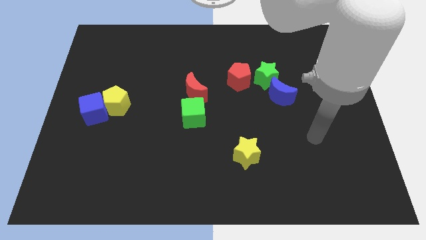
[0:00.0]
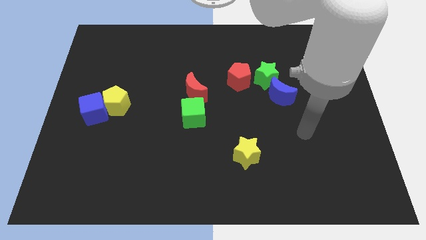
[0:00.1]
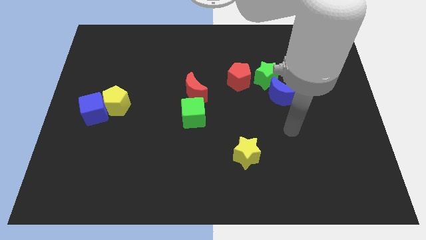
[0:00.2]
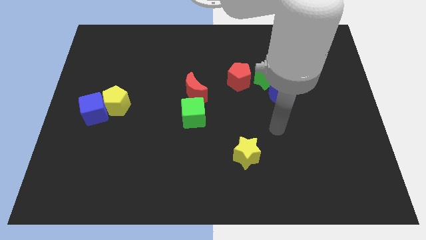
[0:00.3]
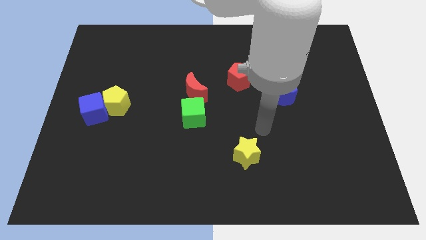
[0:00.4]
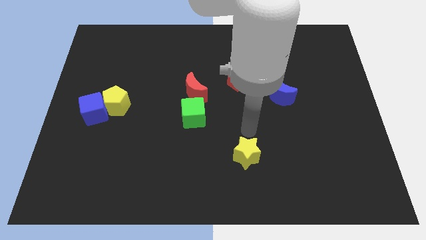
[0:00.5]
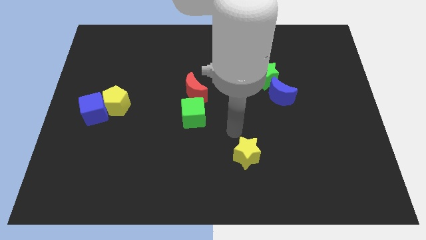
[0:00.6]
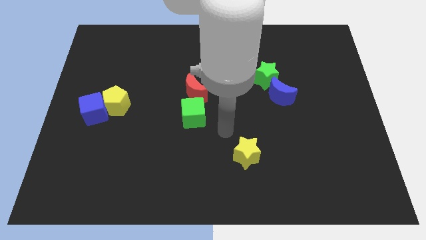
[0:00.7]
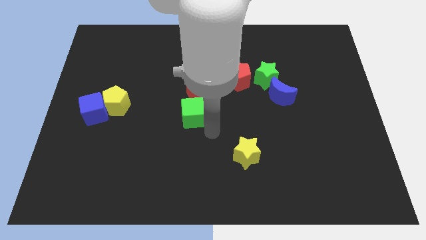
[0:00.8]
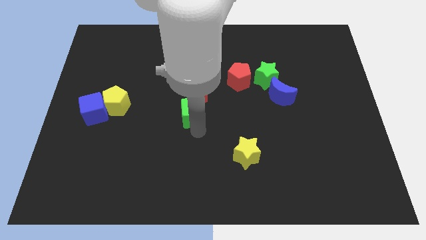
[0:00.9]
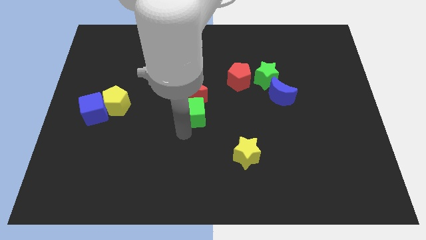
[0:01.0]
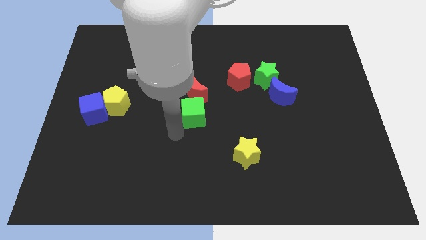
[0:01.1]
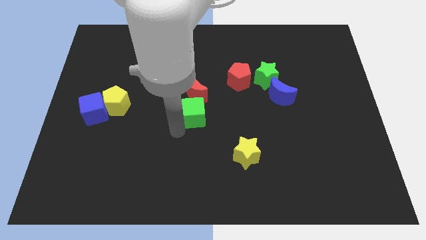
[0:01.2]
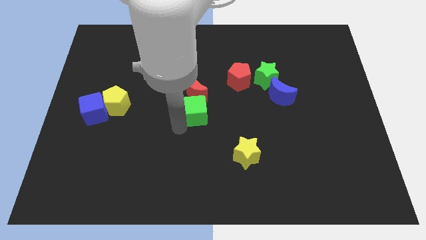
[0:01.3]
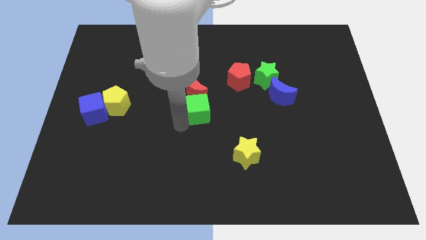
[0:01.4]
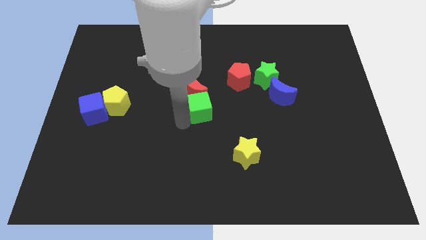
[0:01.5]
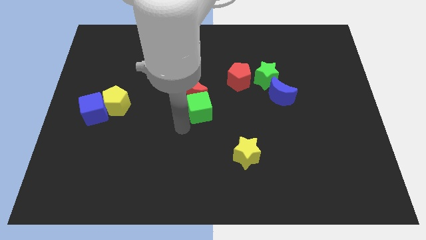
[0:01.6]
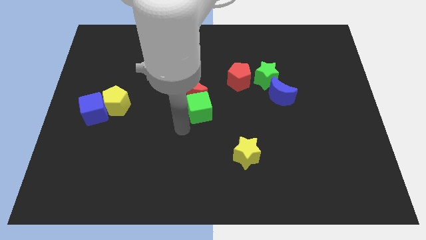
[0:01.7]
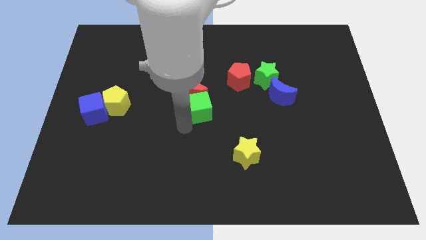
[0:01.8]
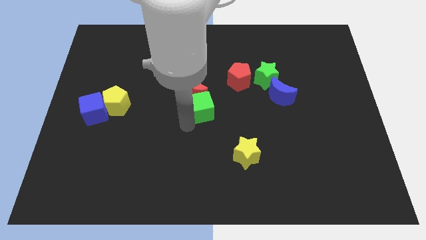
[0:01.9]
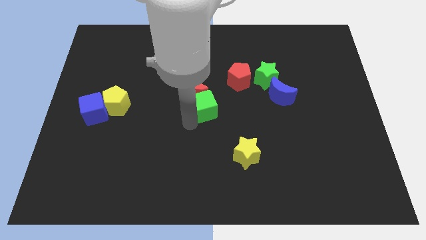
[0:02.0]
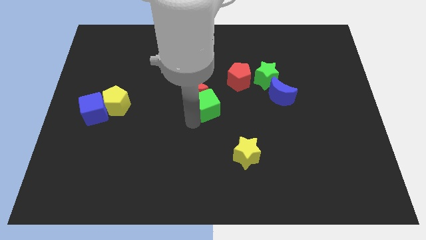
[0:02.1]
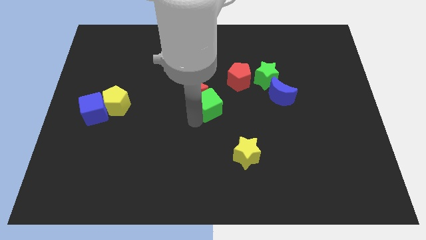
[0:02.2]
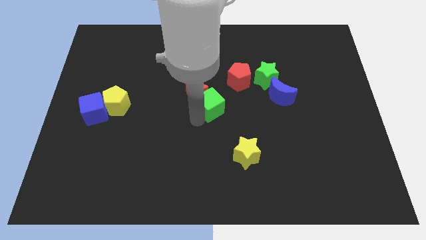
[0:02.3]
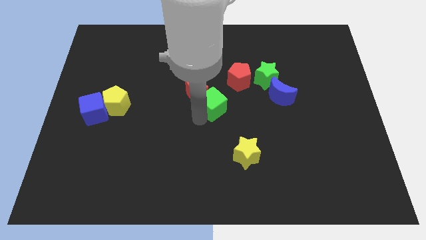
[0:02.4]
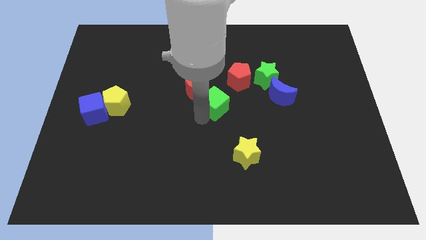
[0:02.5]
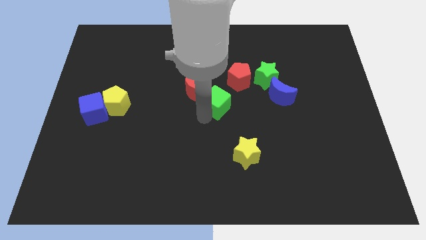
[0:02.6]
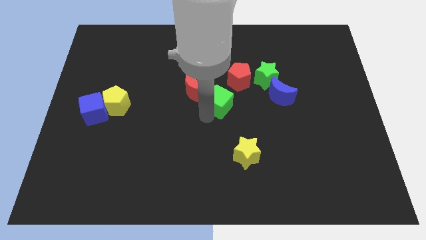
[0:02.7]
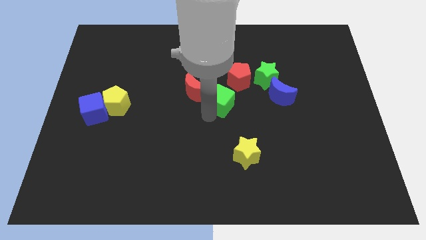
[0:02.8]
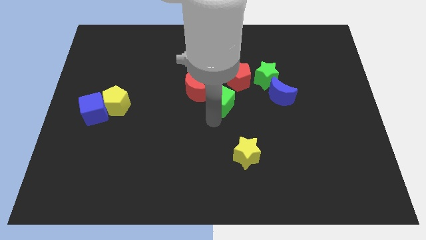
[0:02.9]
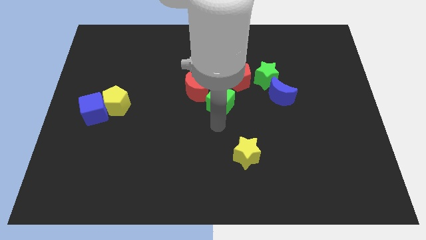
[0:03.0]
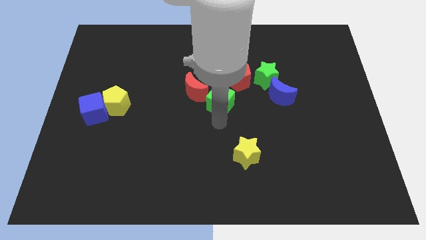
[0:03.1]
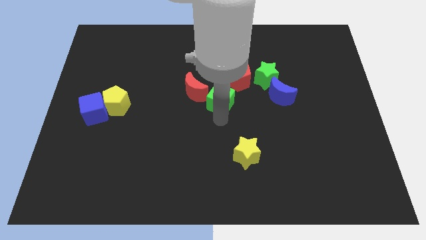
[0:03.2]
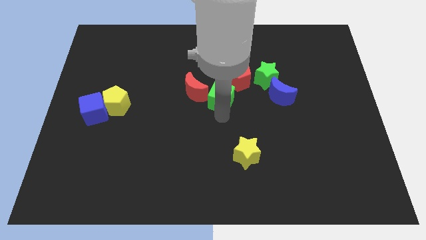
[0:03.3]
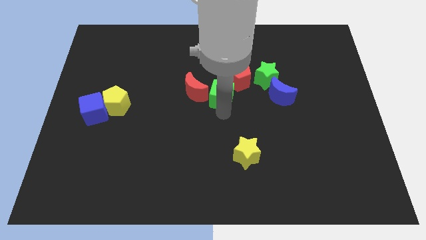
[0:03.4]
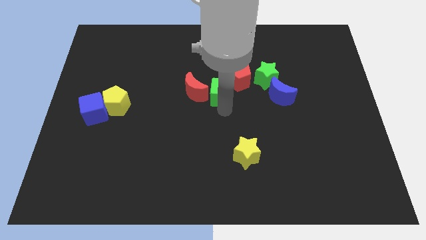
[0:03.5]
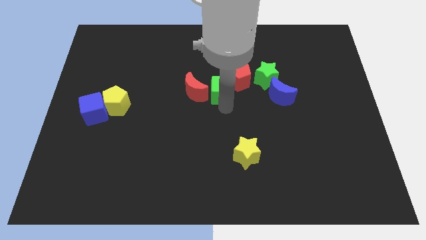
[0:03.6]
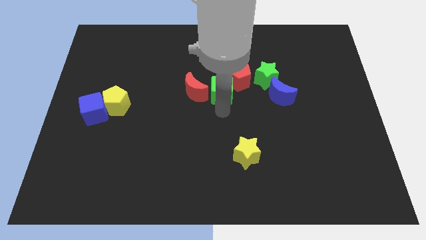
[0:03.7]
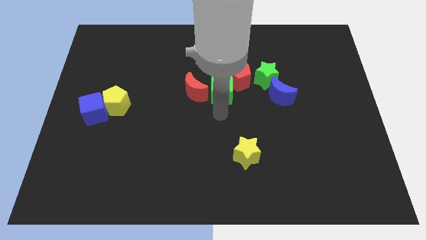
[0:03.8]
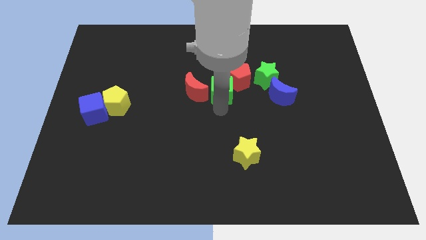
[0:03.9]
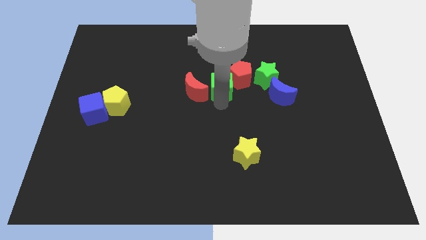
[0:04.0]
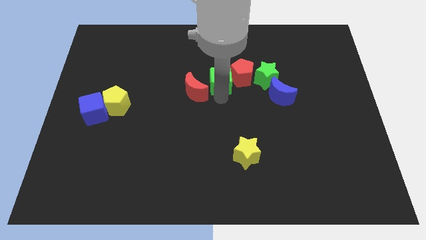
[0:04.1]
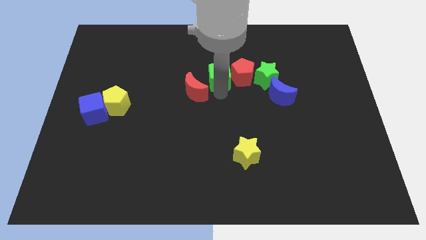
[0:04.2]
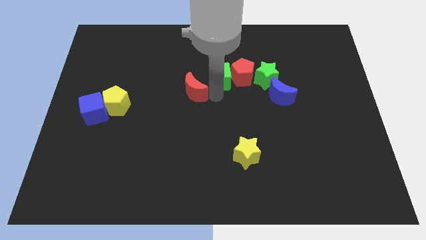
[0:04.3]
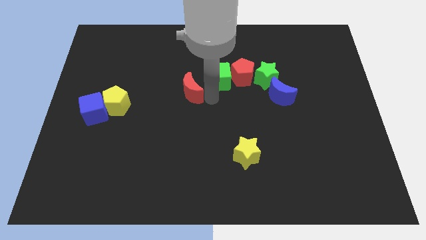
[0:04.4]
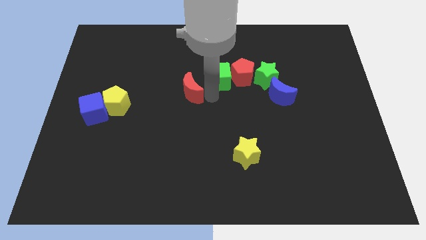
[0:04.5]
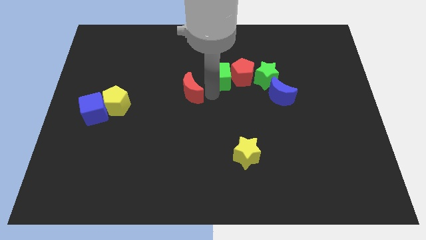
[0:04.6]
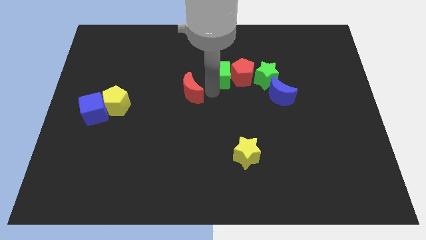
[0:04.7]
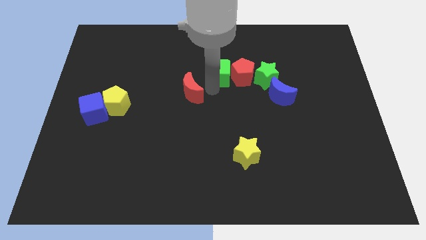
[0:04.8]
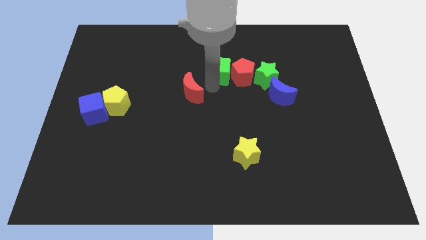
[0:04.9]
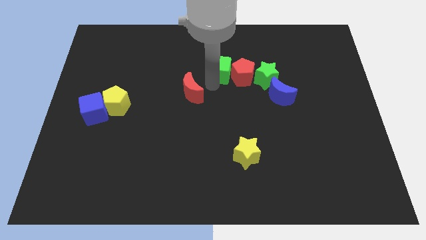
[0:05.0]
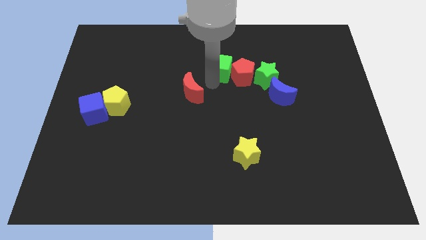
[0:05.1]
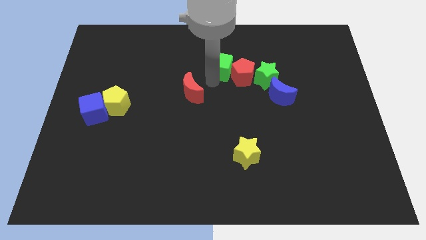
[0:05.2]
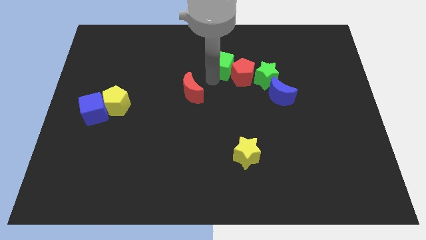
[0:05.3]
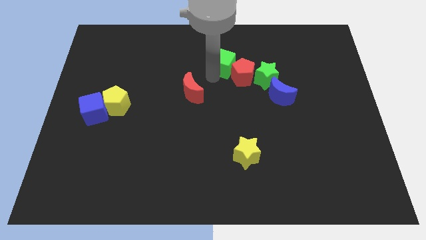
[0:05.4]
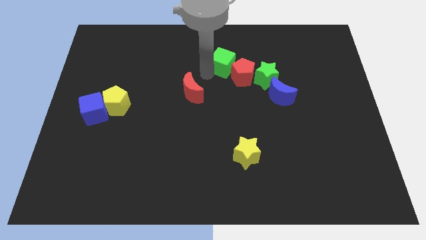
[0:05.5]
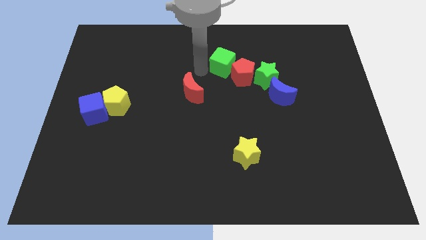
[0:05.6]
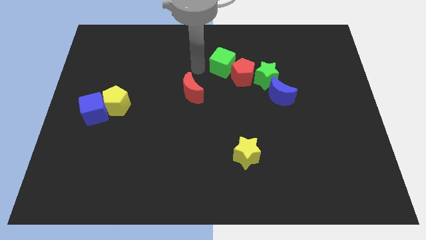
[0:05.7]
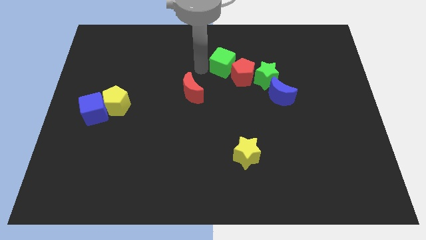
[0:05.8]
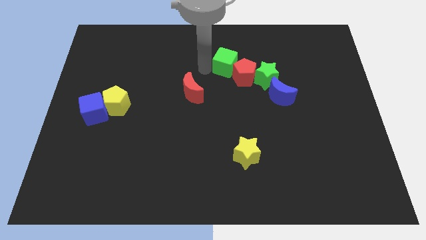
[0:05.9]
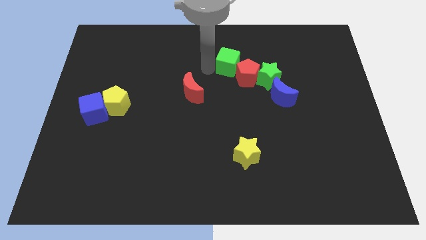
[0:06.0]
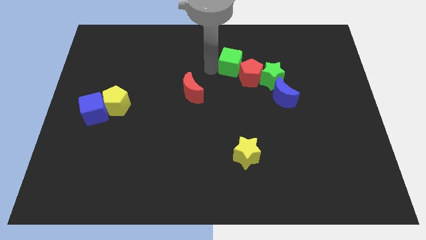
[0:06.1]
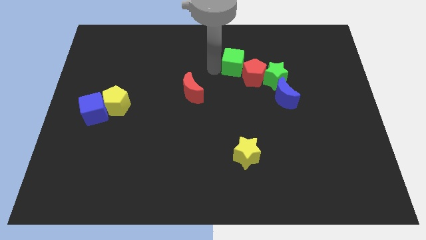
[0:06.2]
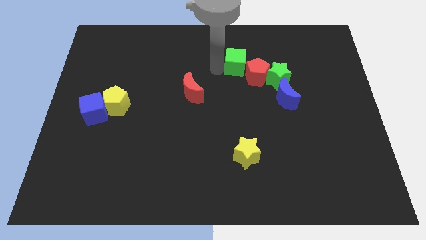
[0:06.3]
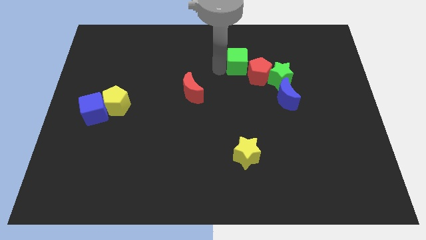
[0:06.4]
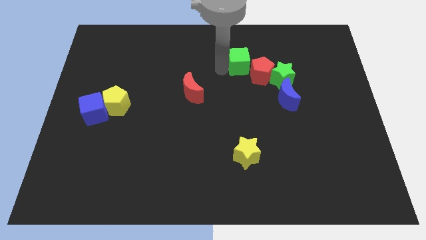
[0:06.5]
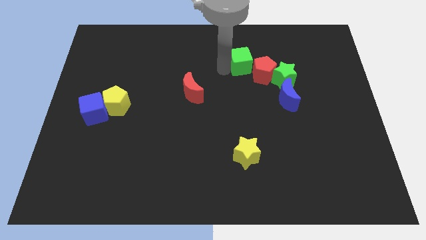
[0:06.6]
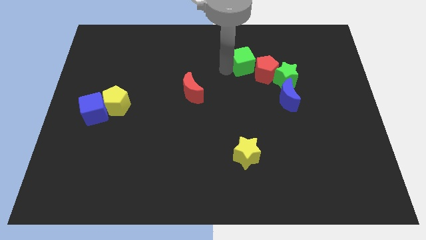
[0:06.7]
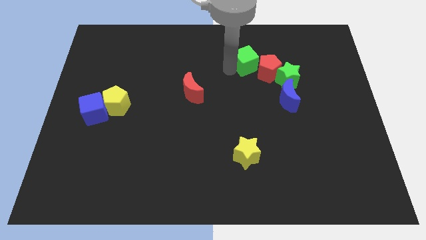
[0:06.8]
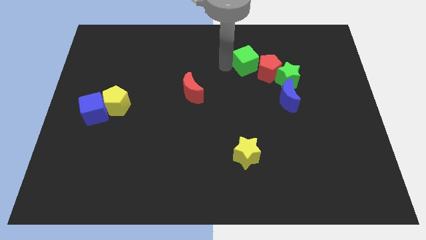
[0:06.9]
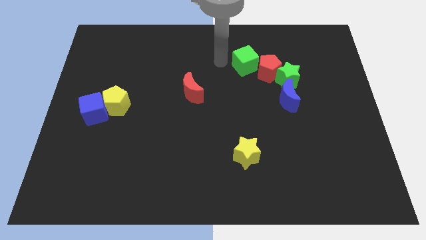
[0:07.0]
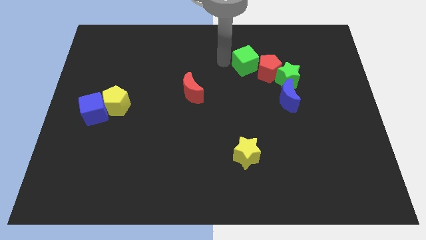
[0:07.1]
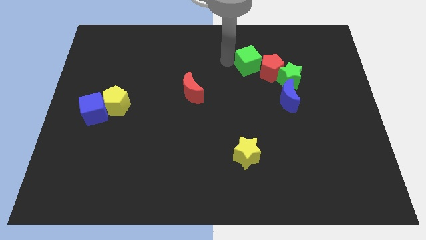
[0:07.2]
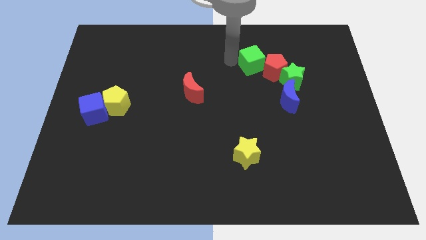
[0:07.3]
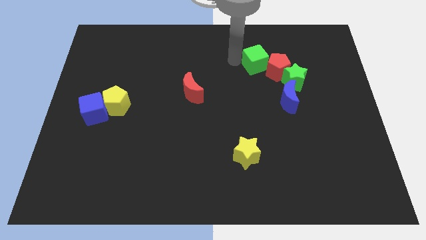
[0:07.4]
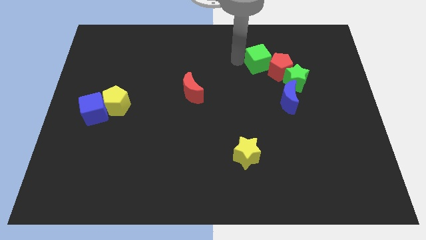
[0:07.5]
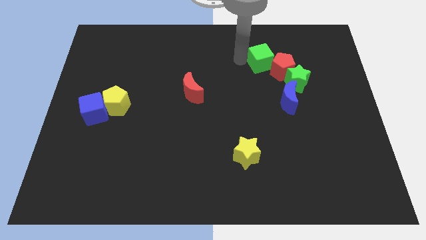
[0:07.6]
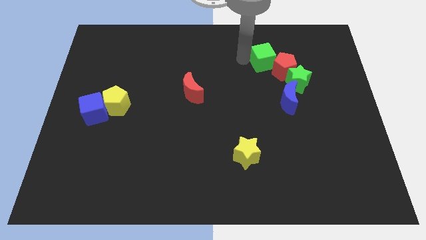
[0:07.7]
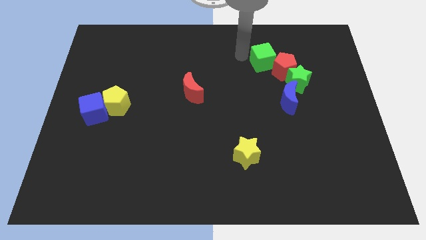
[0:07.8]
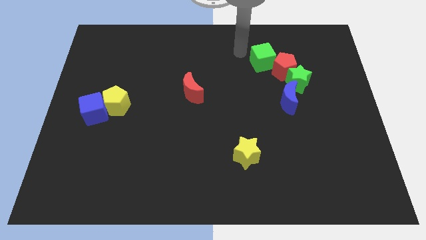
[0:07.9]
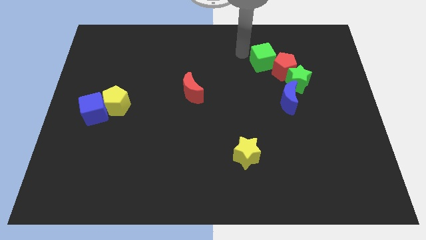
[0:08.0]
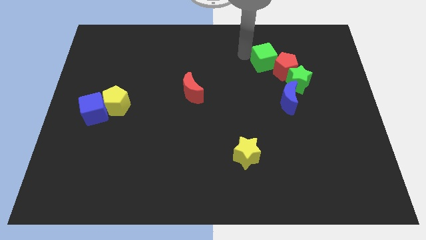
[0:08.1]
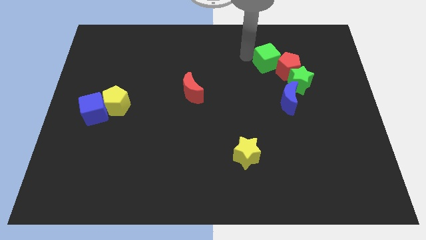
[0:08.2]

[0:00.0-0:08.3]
push the green cube to the top side of the blue moon
